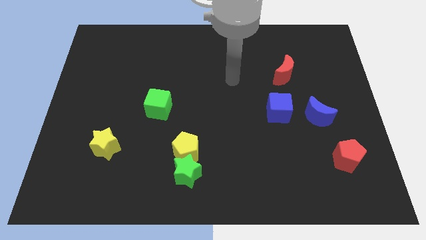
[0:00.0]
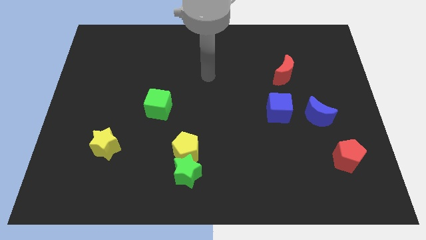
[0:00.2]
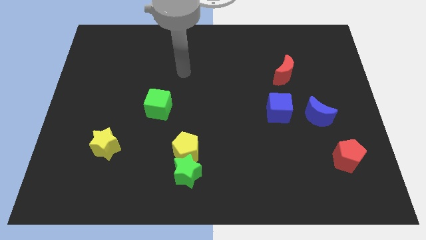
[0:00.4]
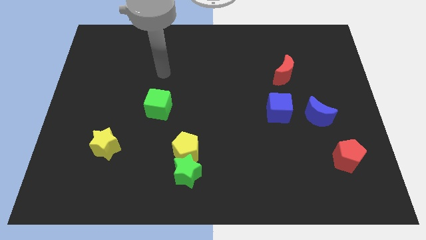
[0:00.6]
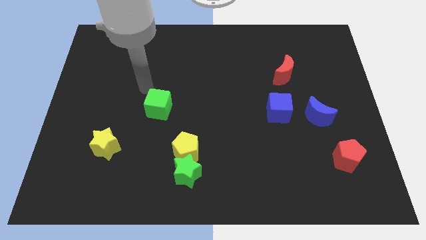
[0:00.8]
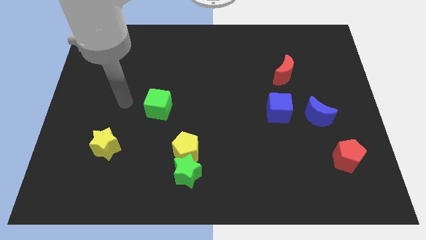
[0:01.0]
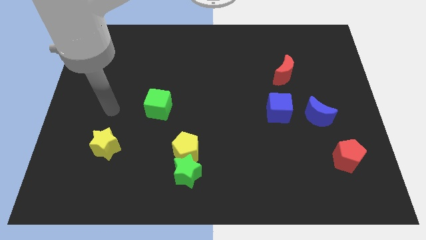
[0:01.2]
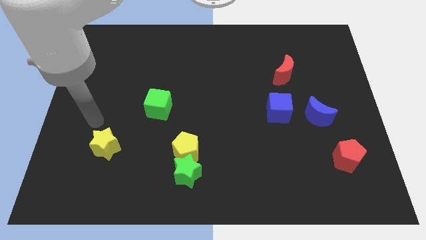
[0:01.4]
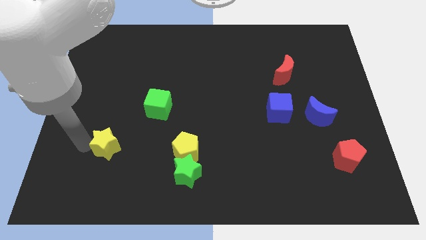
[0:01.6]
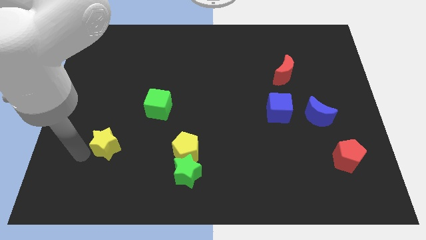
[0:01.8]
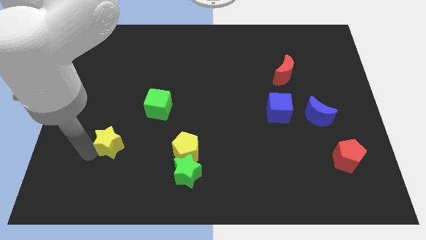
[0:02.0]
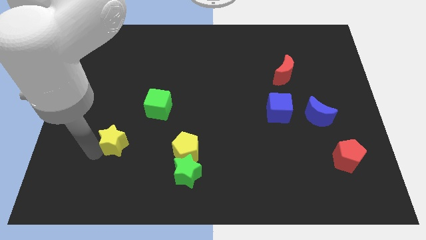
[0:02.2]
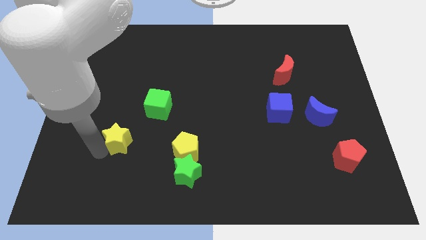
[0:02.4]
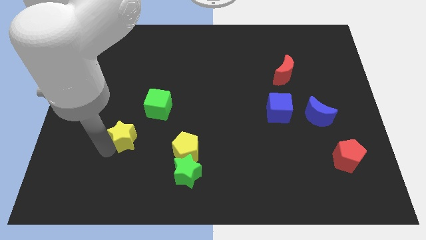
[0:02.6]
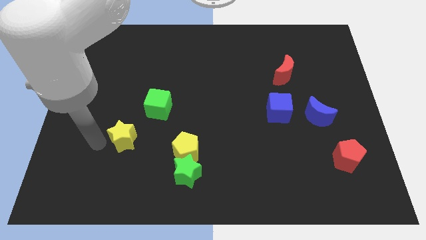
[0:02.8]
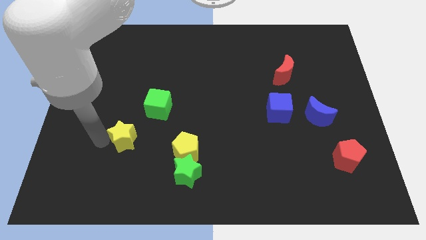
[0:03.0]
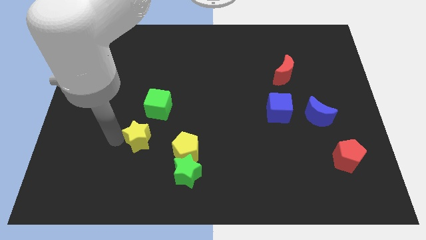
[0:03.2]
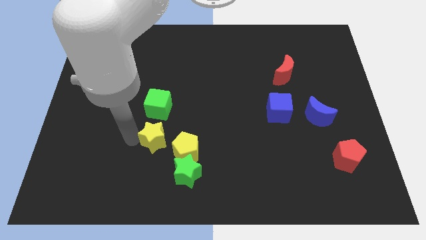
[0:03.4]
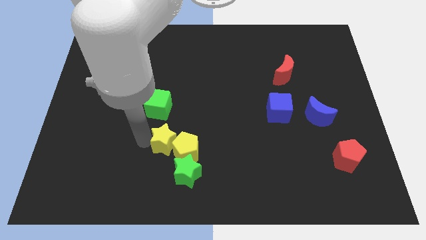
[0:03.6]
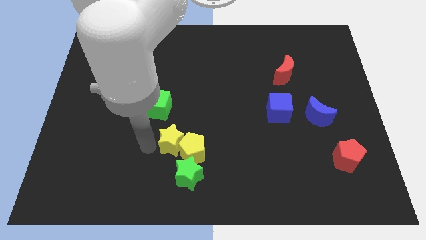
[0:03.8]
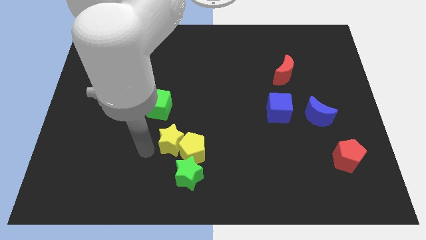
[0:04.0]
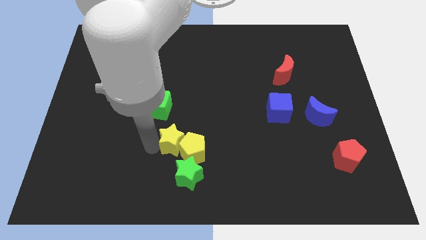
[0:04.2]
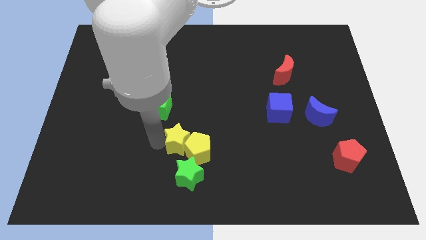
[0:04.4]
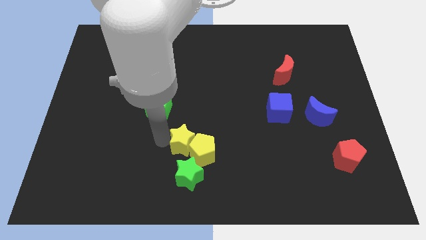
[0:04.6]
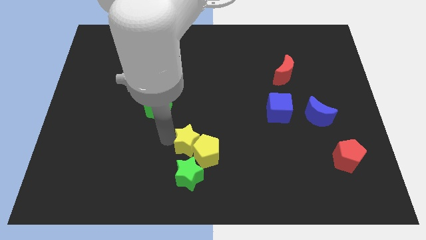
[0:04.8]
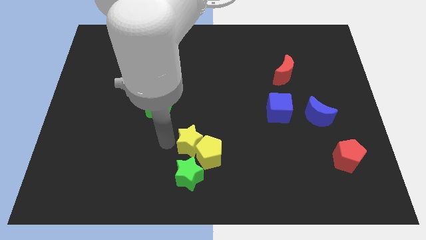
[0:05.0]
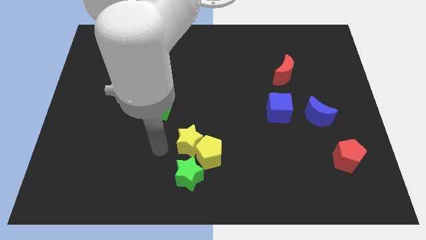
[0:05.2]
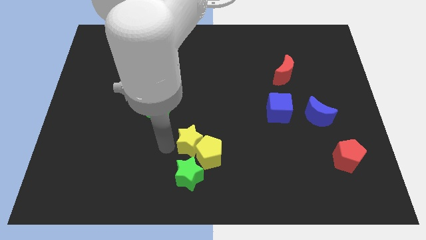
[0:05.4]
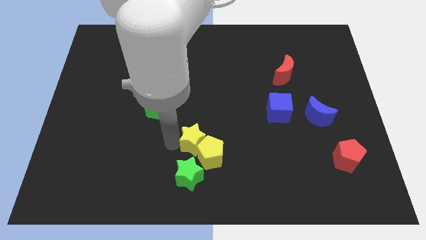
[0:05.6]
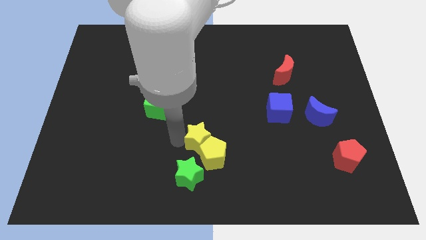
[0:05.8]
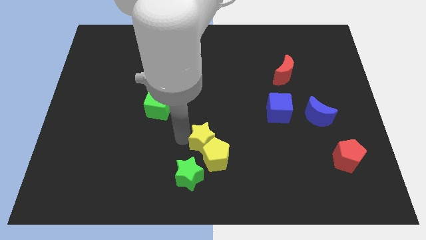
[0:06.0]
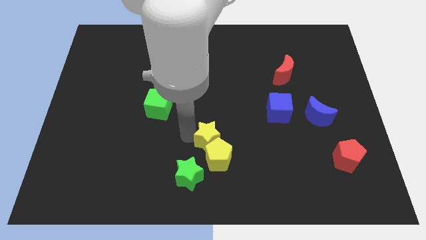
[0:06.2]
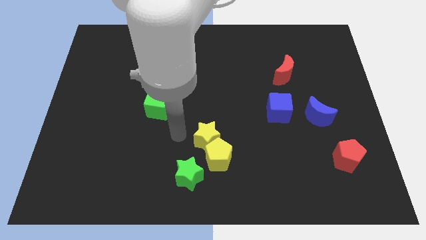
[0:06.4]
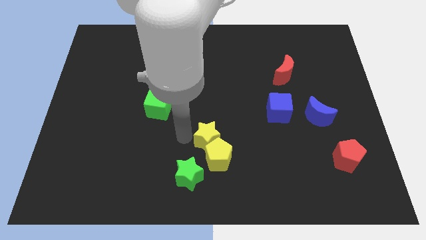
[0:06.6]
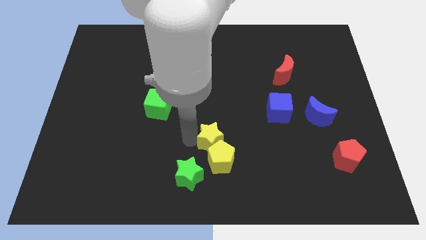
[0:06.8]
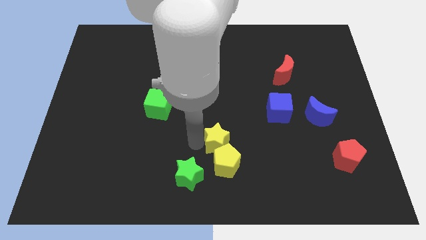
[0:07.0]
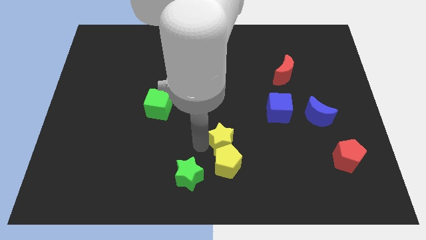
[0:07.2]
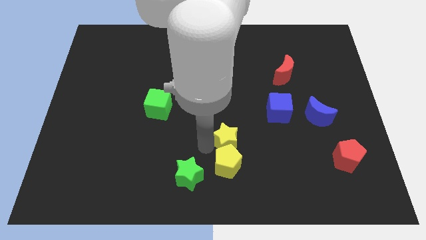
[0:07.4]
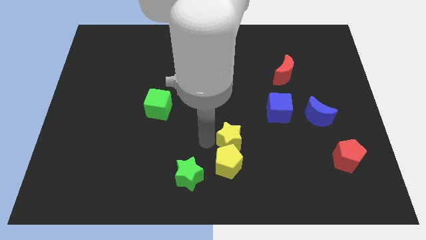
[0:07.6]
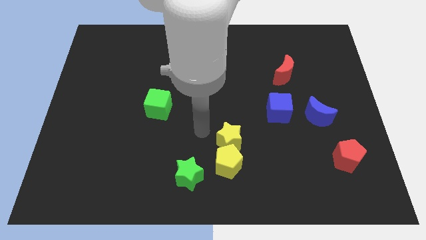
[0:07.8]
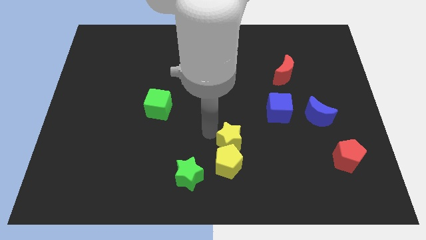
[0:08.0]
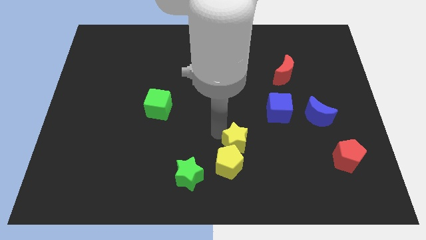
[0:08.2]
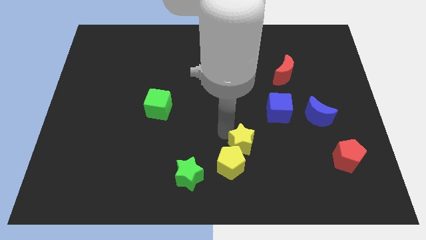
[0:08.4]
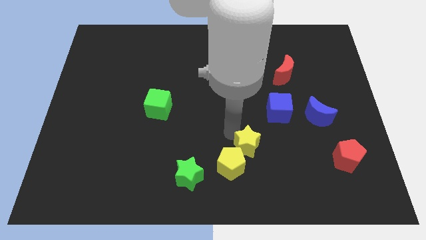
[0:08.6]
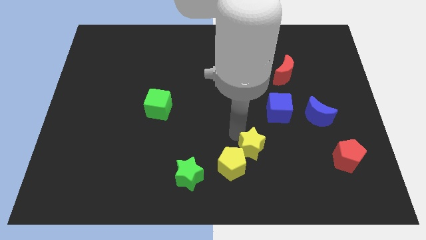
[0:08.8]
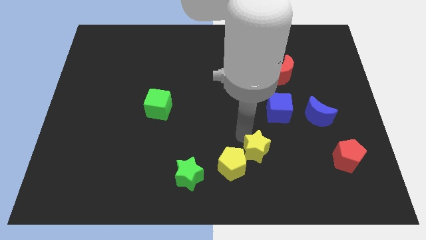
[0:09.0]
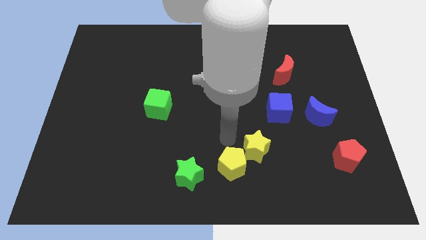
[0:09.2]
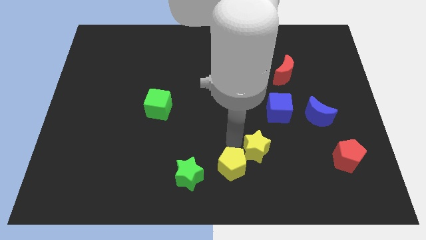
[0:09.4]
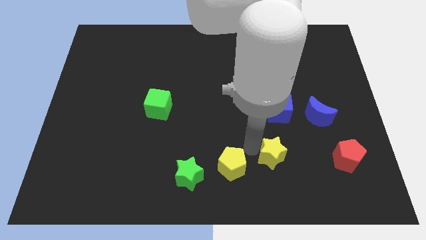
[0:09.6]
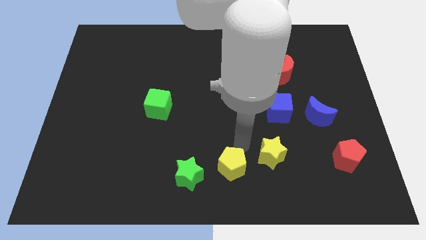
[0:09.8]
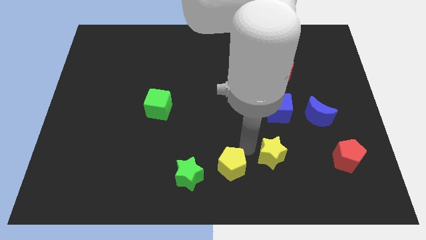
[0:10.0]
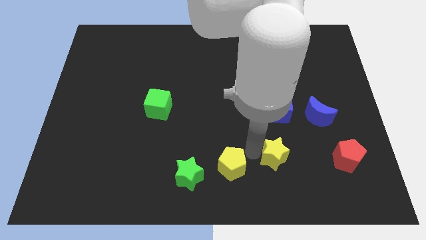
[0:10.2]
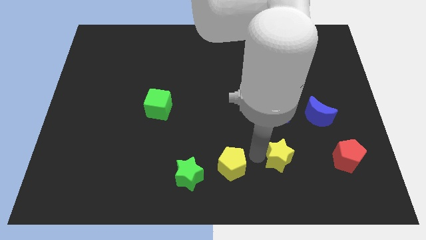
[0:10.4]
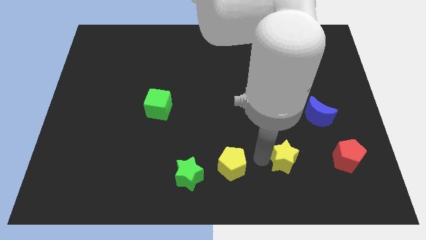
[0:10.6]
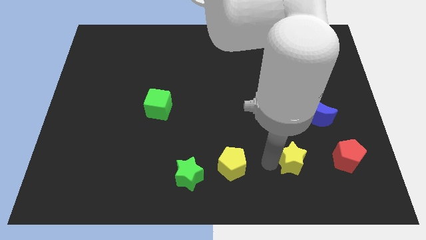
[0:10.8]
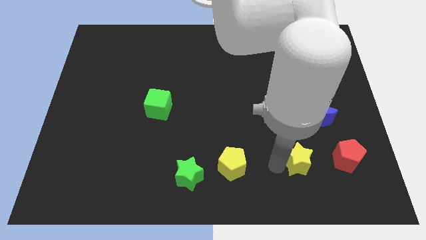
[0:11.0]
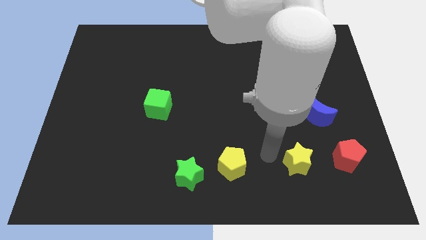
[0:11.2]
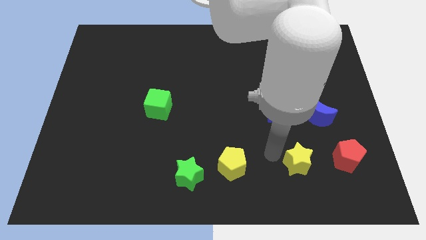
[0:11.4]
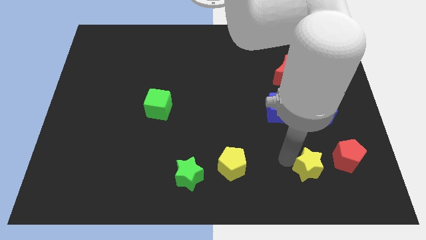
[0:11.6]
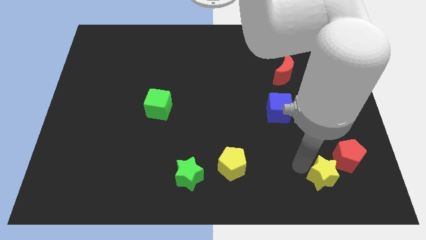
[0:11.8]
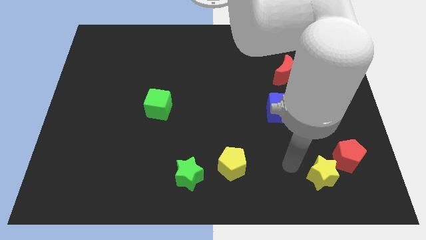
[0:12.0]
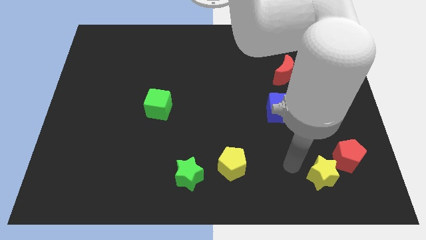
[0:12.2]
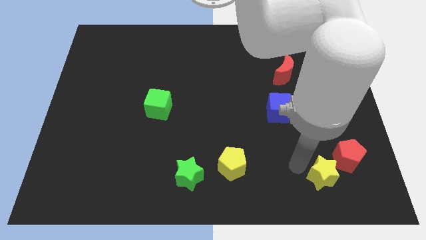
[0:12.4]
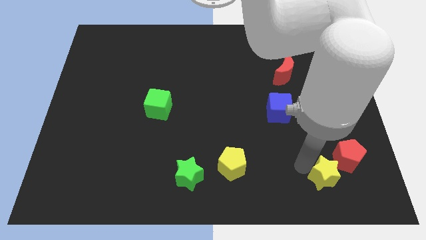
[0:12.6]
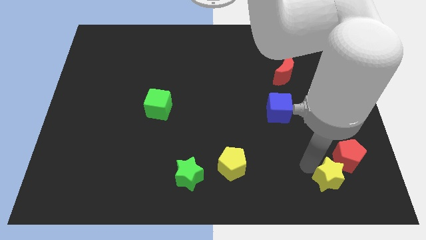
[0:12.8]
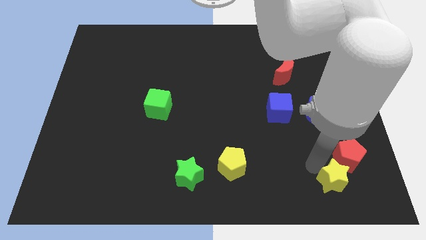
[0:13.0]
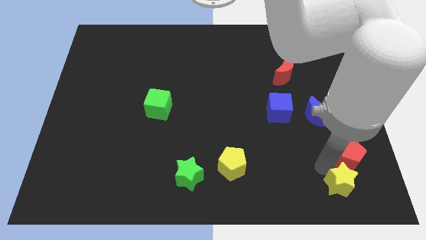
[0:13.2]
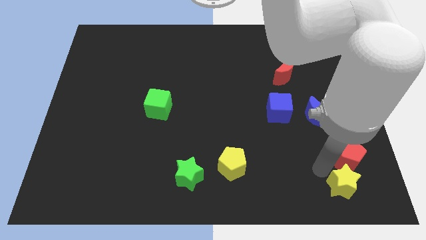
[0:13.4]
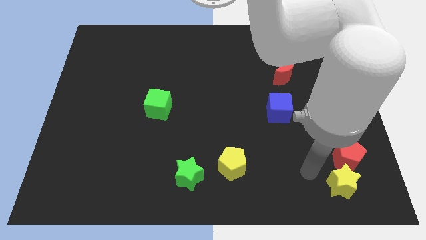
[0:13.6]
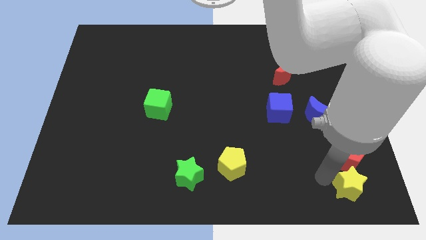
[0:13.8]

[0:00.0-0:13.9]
put the yellow star to the bottom right corner

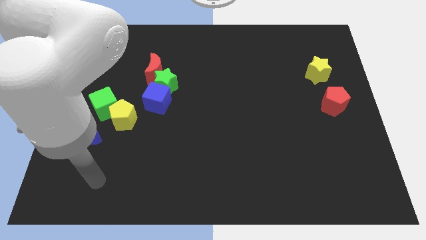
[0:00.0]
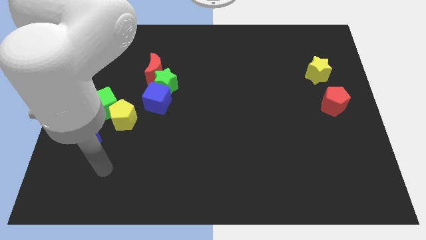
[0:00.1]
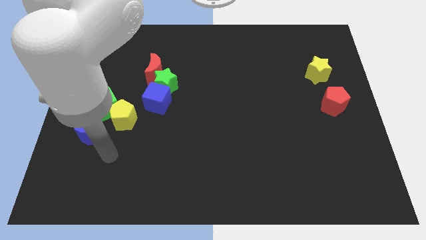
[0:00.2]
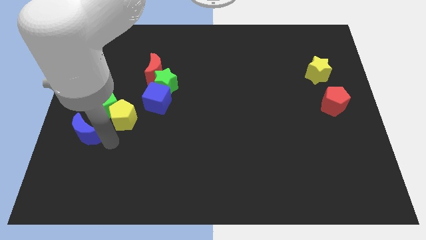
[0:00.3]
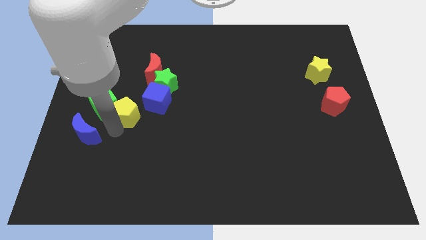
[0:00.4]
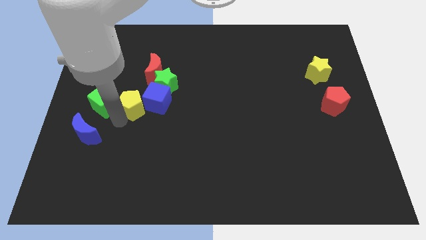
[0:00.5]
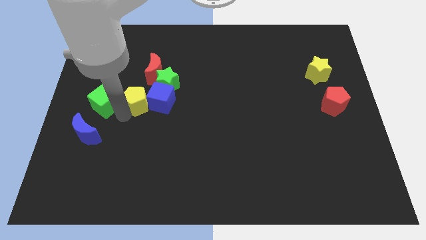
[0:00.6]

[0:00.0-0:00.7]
put the blue cube to the center of the board
